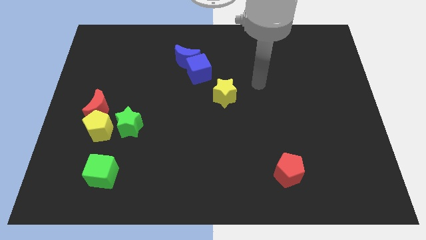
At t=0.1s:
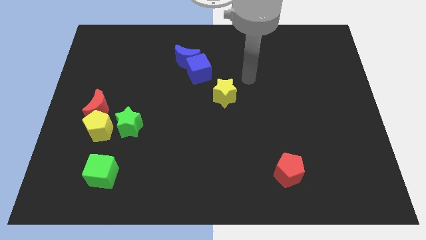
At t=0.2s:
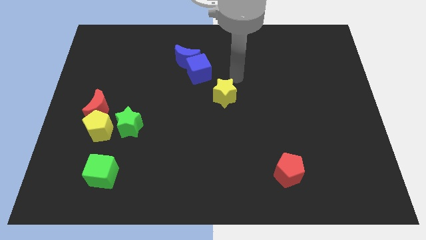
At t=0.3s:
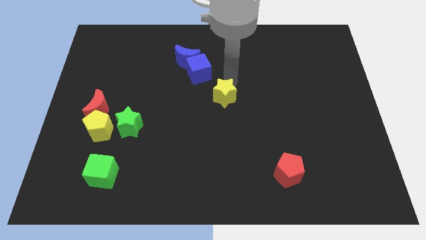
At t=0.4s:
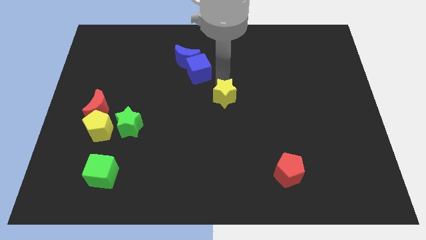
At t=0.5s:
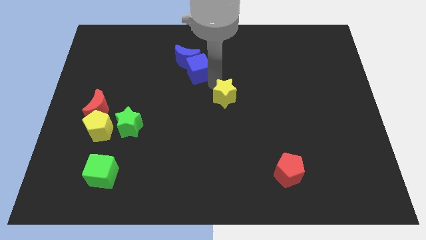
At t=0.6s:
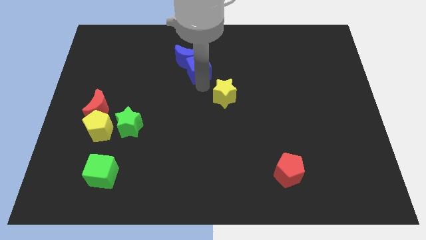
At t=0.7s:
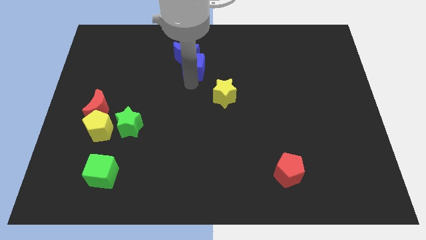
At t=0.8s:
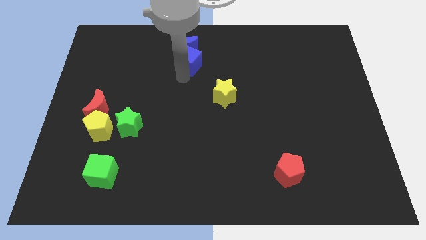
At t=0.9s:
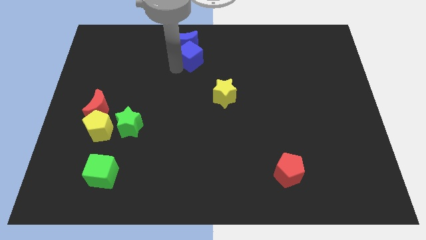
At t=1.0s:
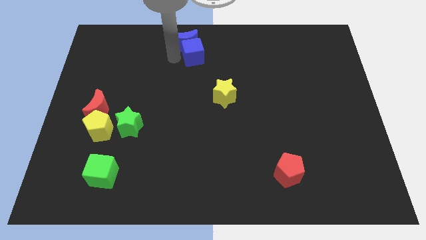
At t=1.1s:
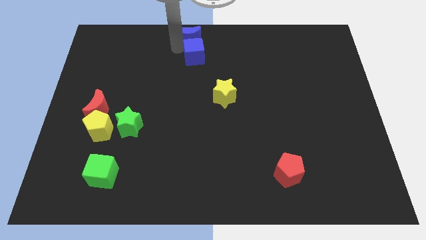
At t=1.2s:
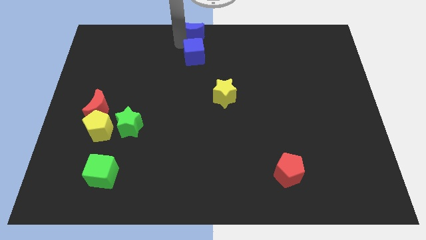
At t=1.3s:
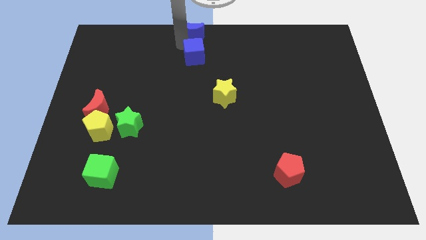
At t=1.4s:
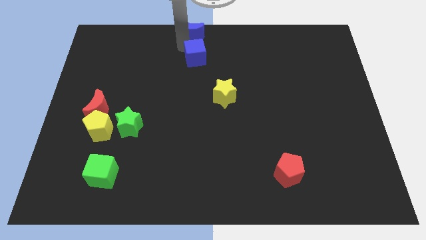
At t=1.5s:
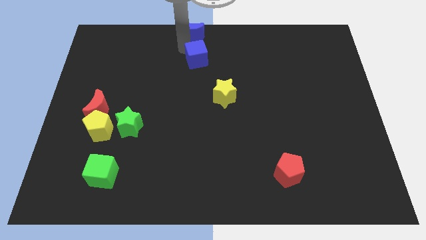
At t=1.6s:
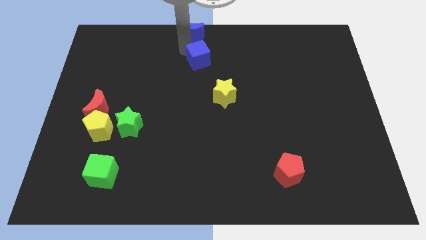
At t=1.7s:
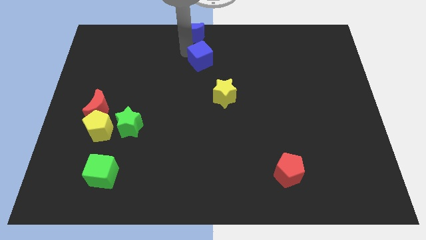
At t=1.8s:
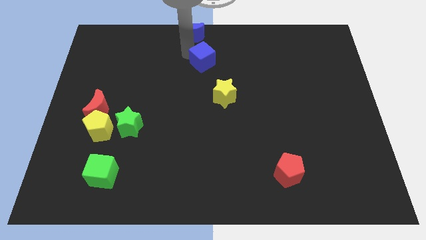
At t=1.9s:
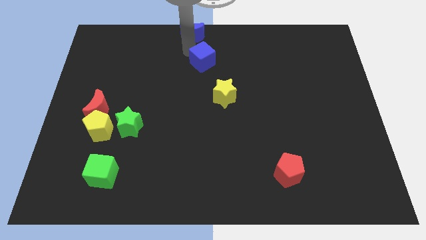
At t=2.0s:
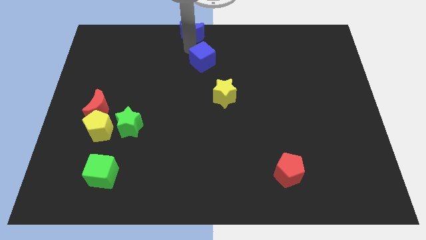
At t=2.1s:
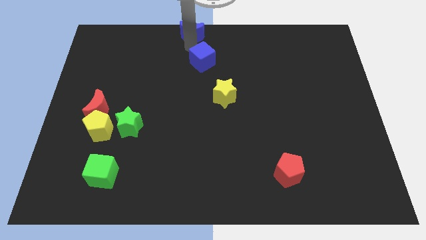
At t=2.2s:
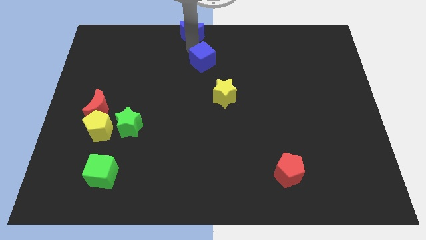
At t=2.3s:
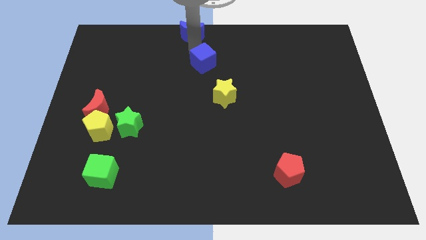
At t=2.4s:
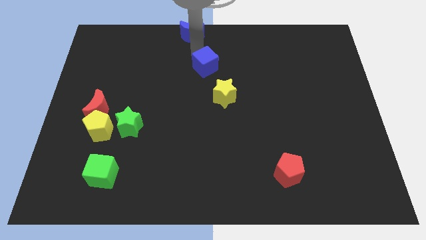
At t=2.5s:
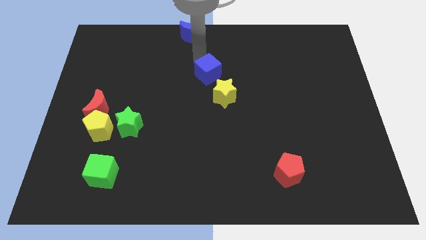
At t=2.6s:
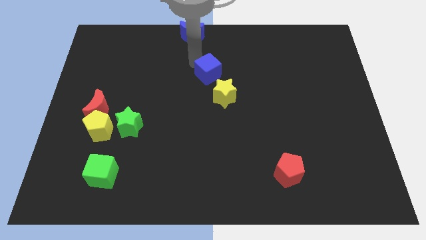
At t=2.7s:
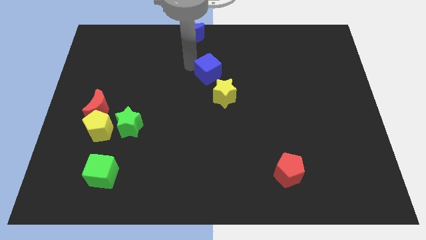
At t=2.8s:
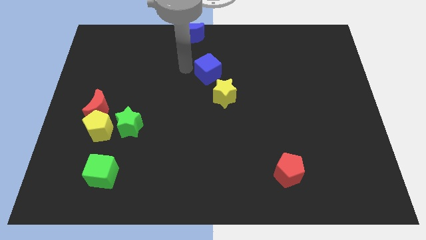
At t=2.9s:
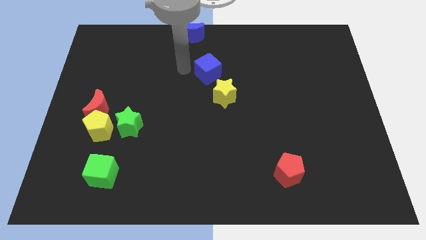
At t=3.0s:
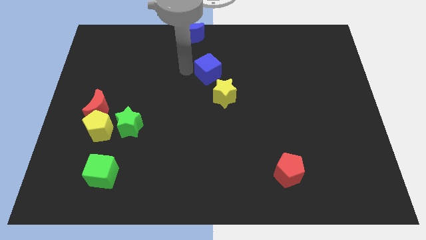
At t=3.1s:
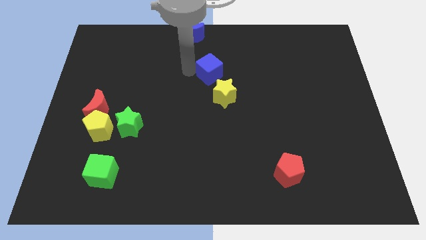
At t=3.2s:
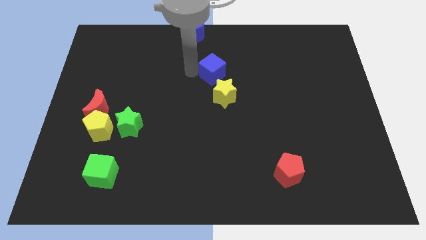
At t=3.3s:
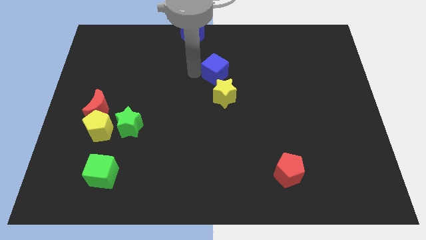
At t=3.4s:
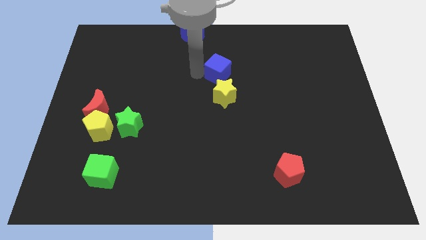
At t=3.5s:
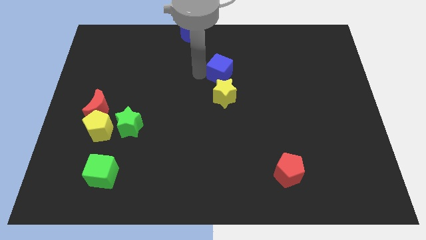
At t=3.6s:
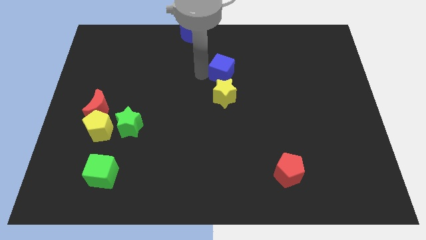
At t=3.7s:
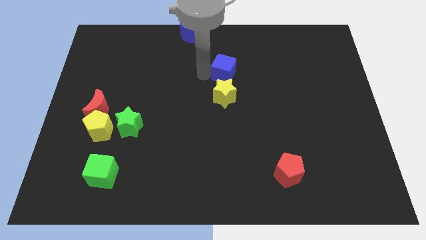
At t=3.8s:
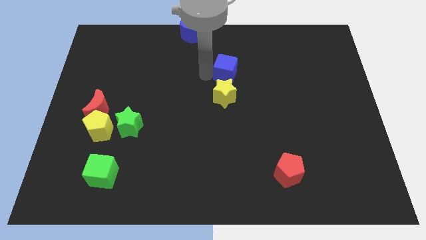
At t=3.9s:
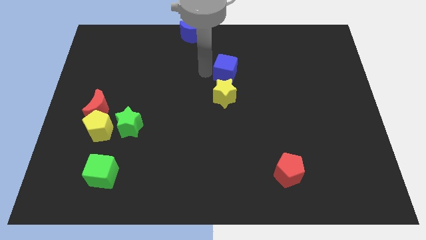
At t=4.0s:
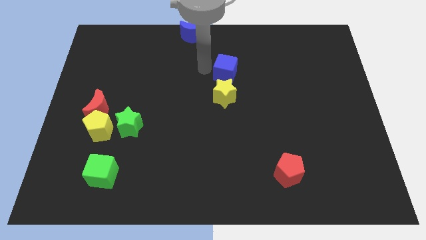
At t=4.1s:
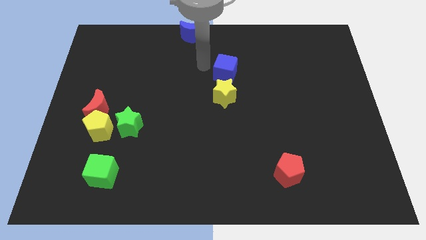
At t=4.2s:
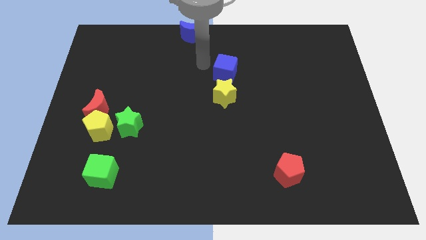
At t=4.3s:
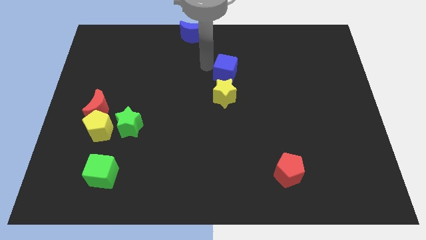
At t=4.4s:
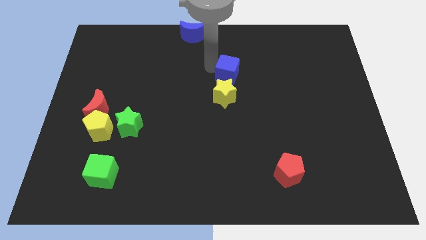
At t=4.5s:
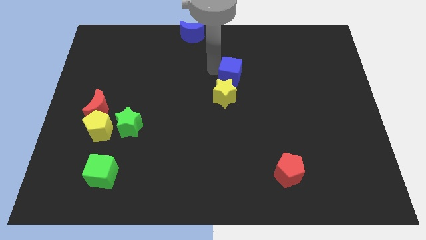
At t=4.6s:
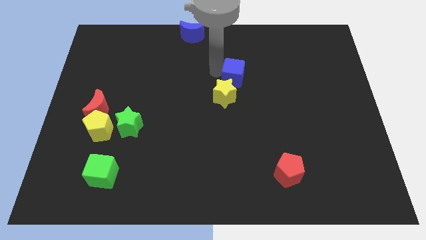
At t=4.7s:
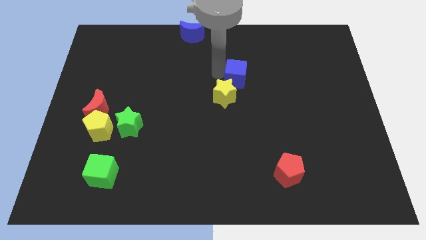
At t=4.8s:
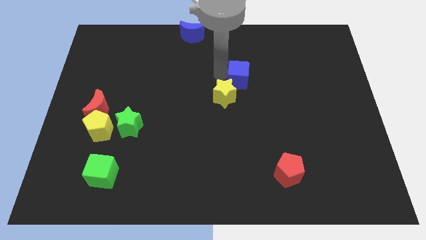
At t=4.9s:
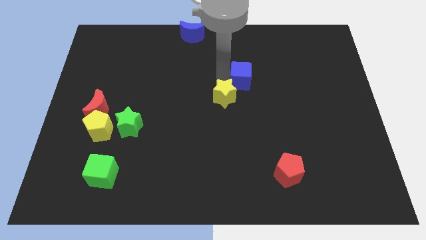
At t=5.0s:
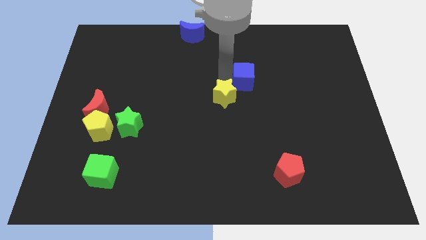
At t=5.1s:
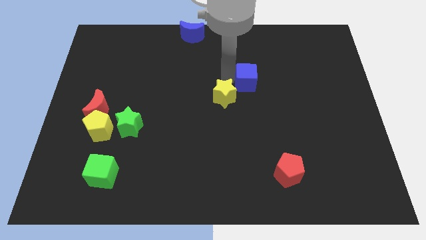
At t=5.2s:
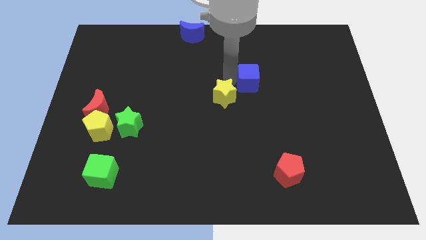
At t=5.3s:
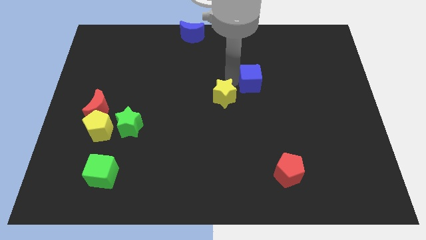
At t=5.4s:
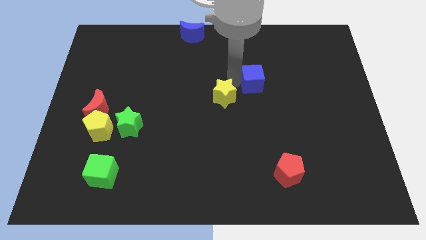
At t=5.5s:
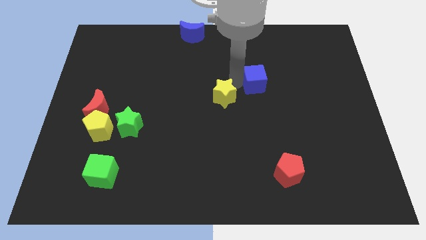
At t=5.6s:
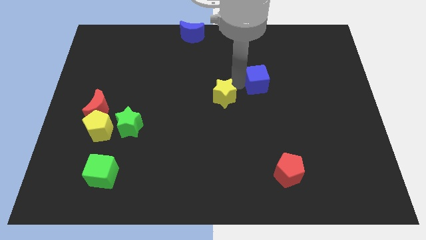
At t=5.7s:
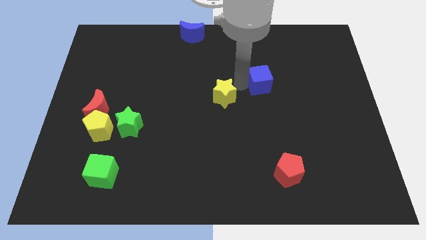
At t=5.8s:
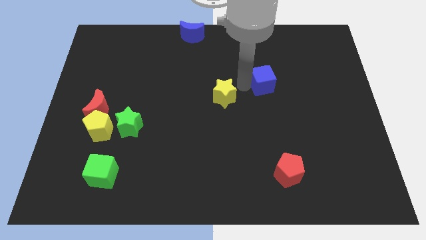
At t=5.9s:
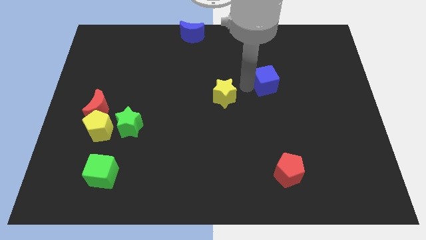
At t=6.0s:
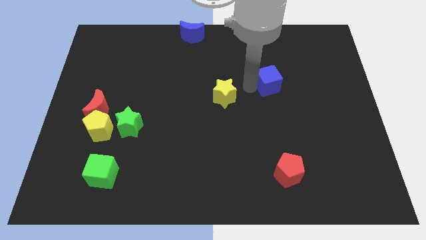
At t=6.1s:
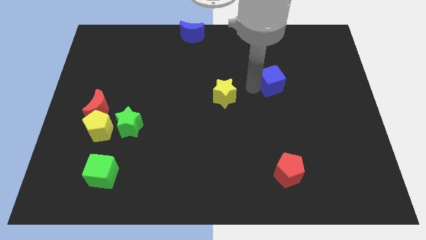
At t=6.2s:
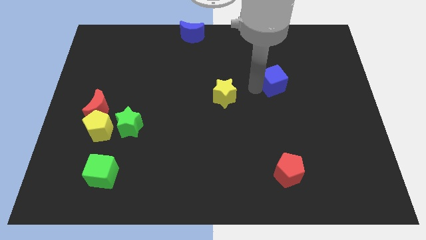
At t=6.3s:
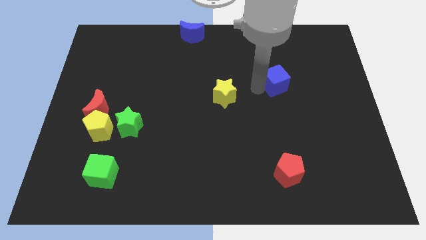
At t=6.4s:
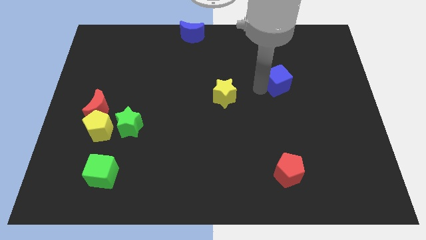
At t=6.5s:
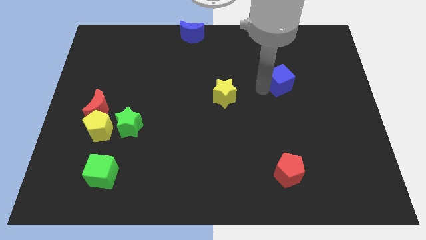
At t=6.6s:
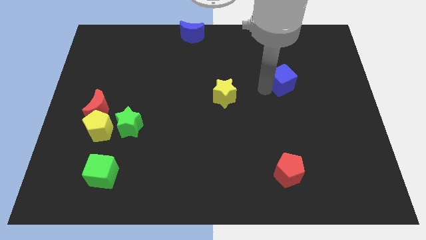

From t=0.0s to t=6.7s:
slide the blue cube to the right

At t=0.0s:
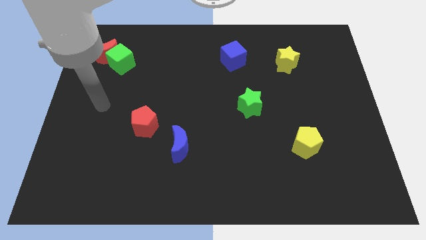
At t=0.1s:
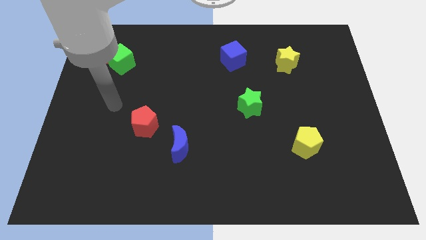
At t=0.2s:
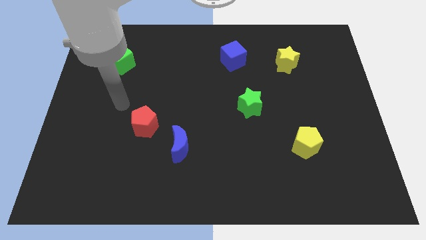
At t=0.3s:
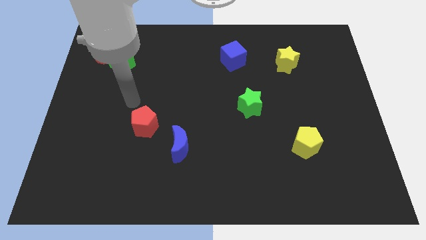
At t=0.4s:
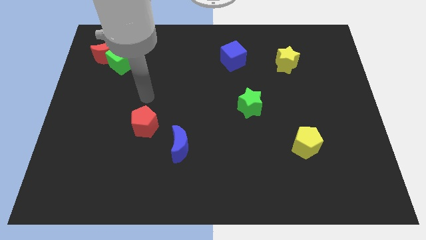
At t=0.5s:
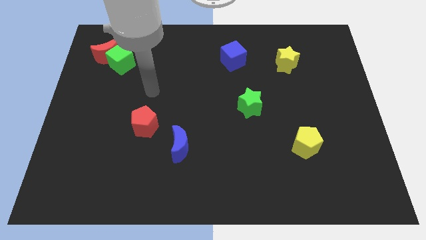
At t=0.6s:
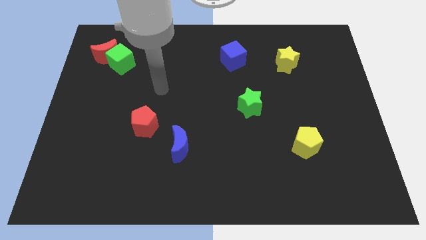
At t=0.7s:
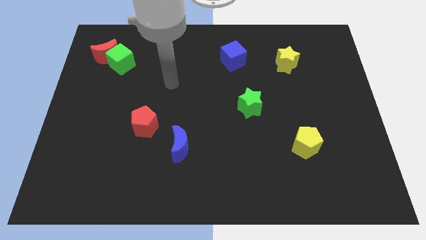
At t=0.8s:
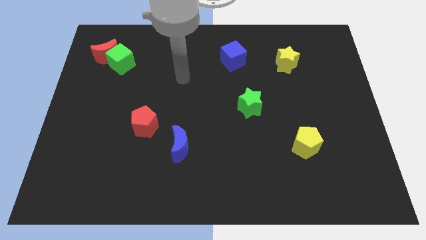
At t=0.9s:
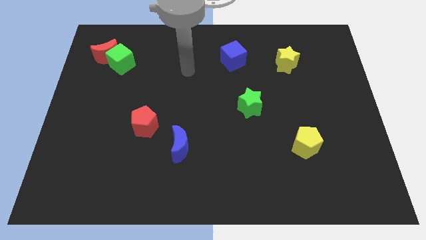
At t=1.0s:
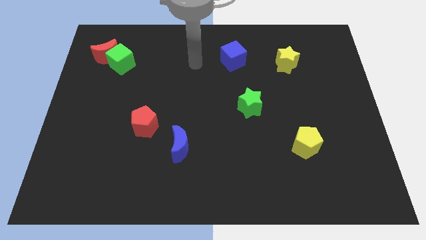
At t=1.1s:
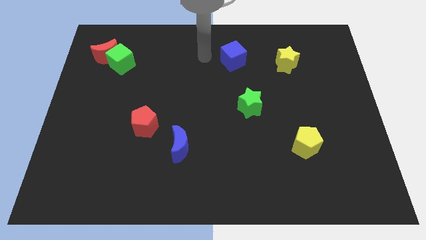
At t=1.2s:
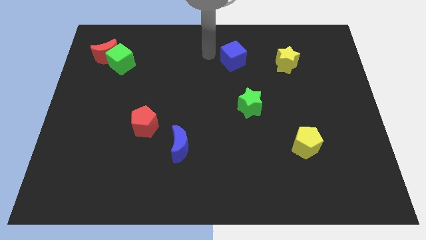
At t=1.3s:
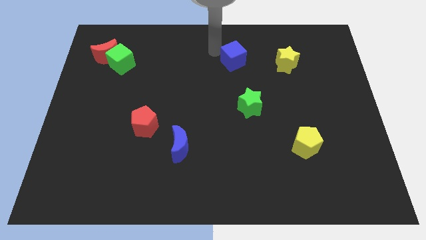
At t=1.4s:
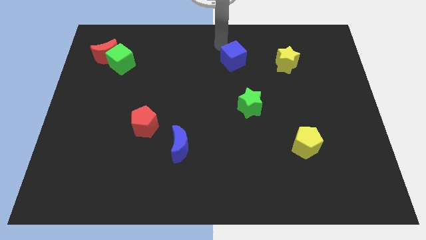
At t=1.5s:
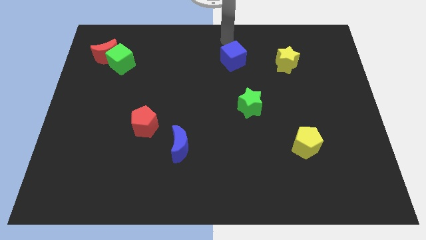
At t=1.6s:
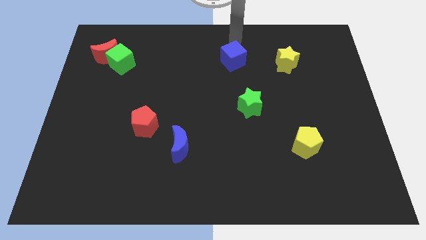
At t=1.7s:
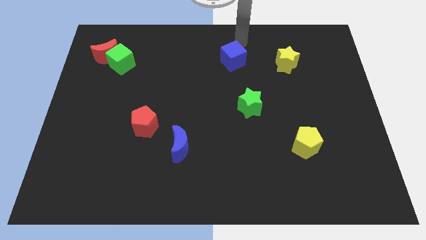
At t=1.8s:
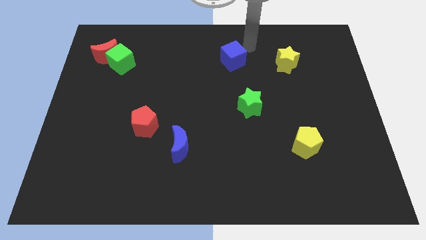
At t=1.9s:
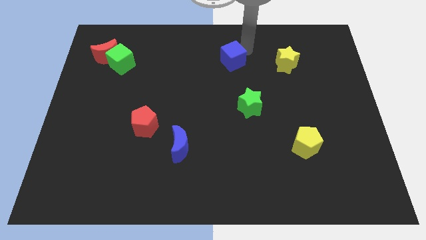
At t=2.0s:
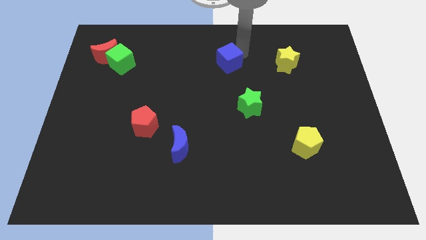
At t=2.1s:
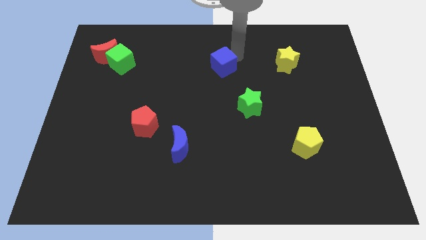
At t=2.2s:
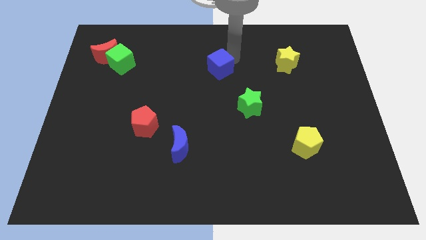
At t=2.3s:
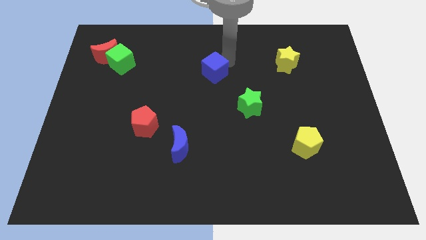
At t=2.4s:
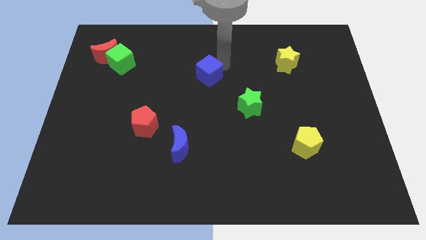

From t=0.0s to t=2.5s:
slightly push the blue cube down and to the left
